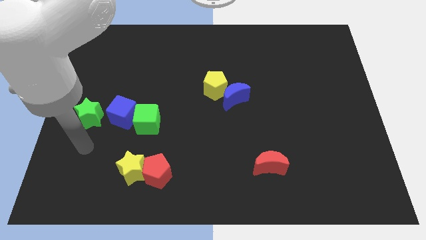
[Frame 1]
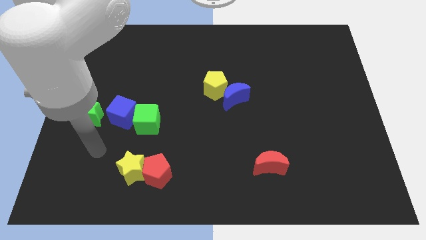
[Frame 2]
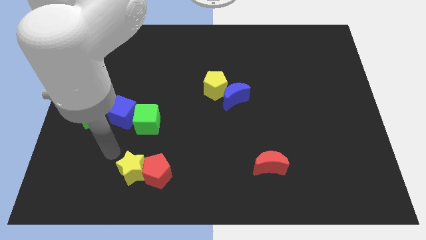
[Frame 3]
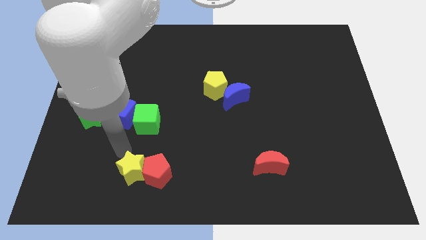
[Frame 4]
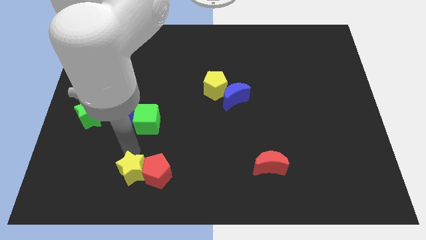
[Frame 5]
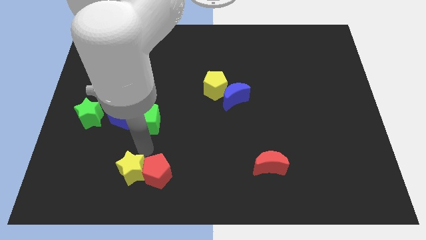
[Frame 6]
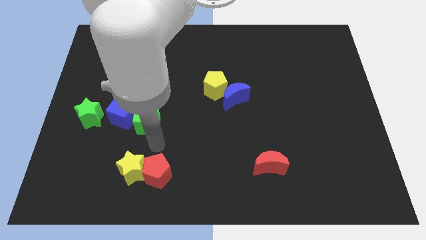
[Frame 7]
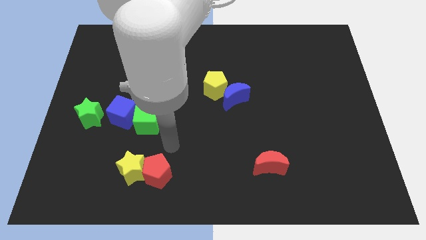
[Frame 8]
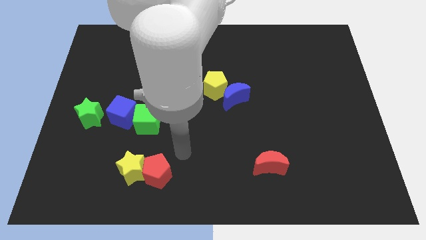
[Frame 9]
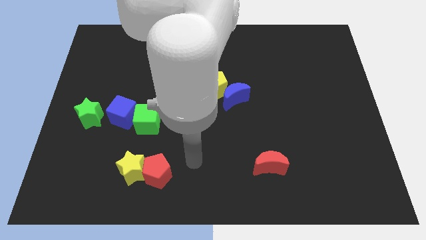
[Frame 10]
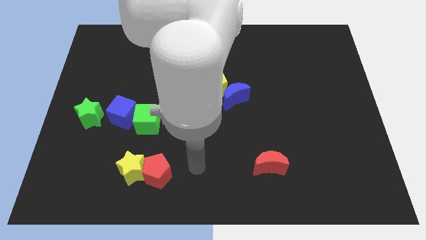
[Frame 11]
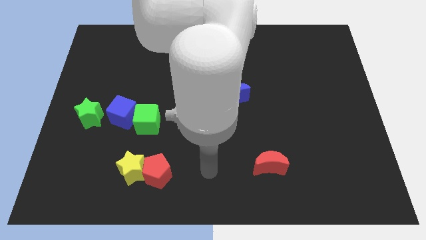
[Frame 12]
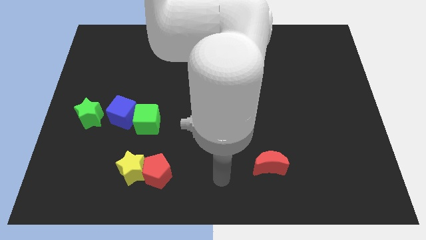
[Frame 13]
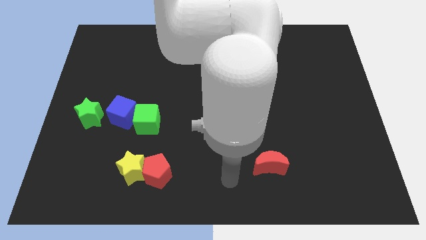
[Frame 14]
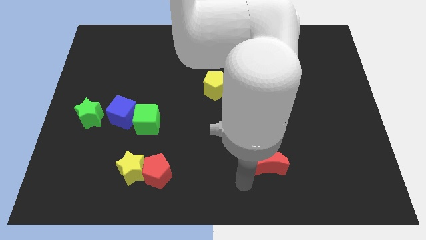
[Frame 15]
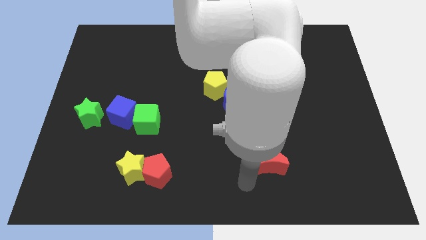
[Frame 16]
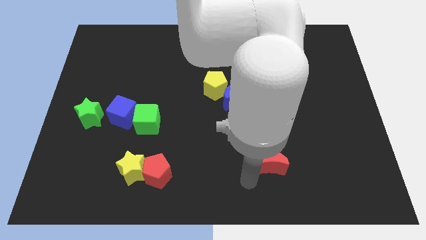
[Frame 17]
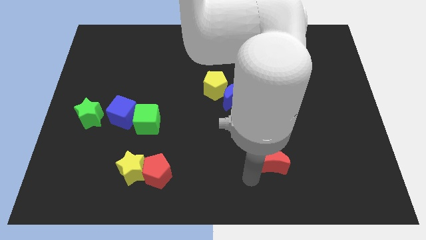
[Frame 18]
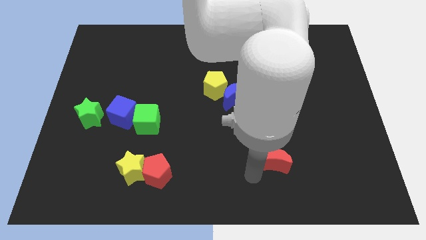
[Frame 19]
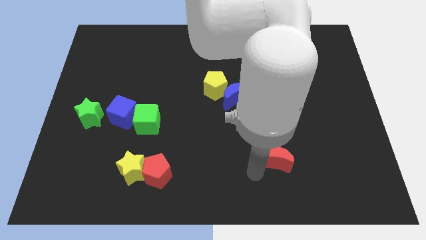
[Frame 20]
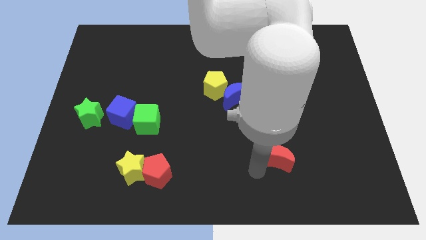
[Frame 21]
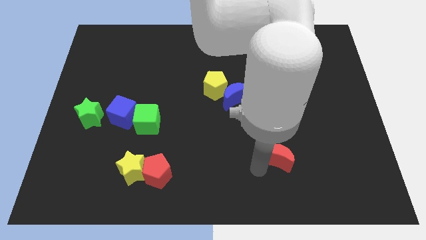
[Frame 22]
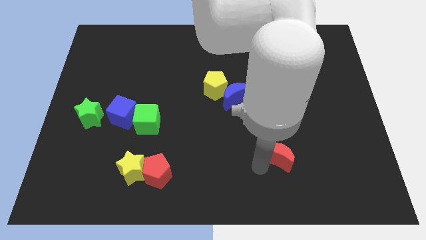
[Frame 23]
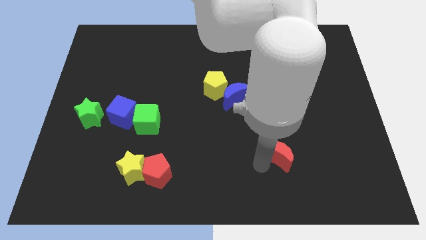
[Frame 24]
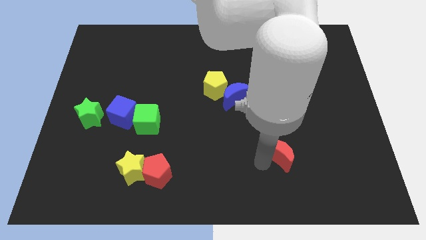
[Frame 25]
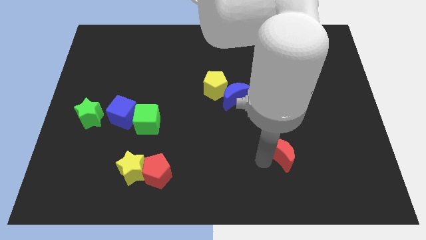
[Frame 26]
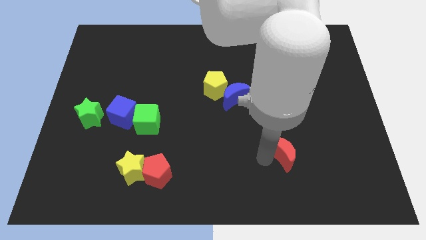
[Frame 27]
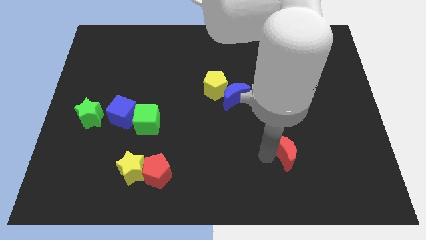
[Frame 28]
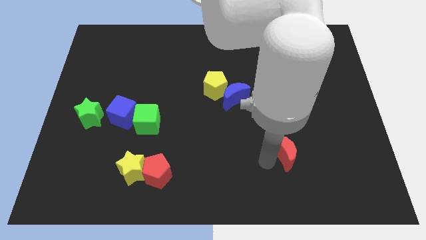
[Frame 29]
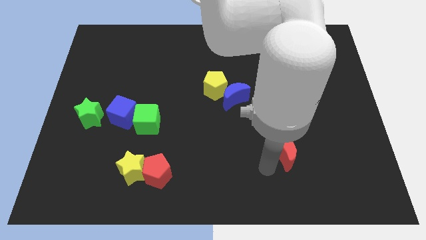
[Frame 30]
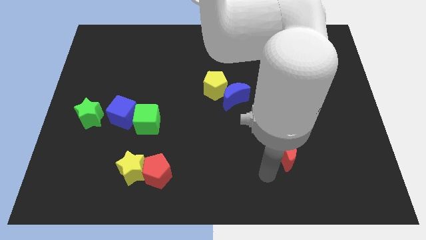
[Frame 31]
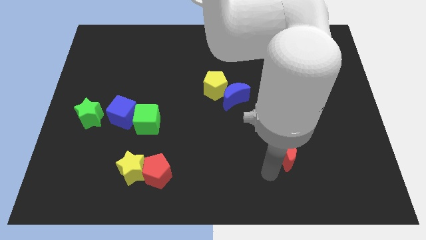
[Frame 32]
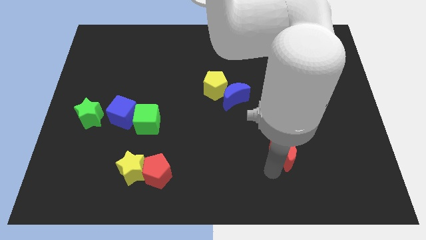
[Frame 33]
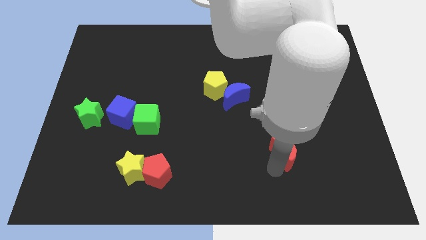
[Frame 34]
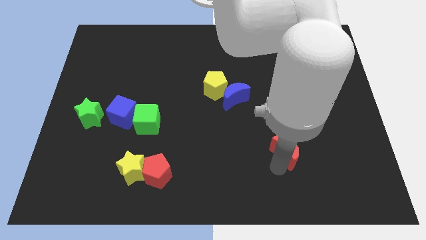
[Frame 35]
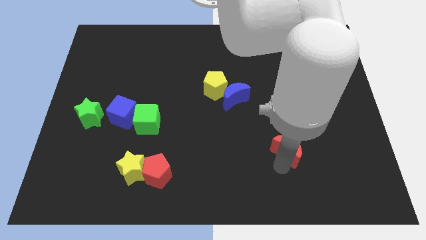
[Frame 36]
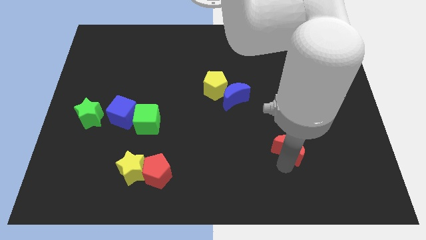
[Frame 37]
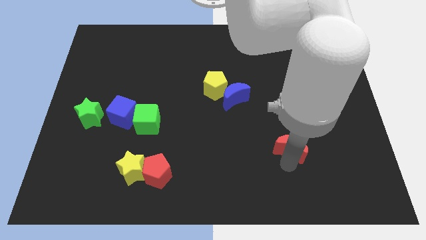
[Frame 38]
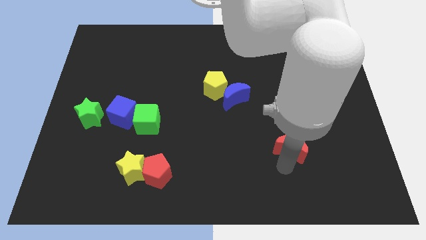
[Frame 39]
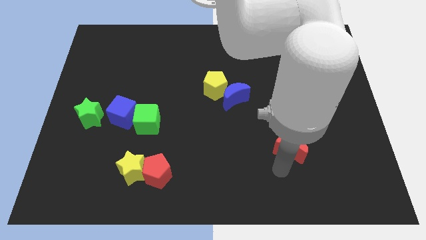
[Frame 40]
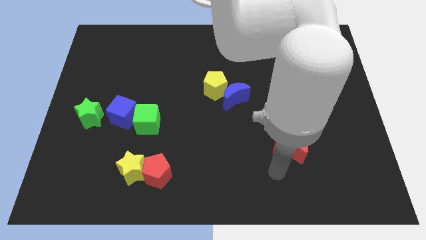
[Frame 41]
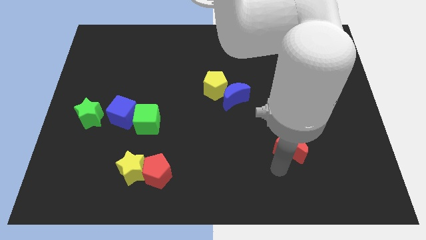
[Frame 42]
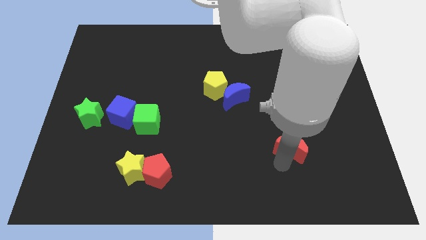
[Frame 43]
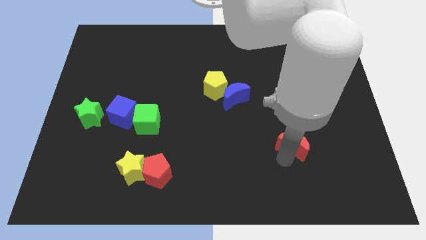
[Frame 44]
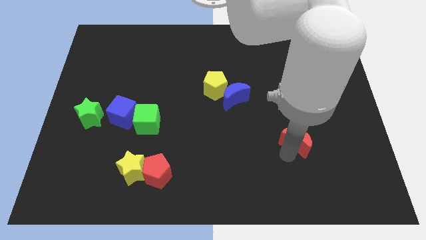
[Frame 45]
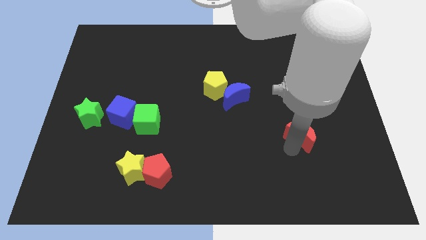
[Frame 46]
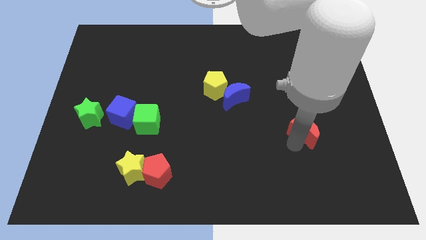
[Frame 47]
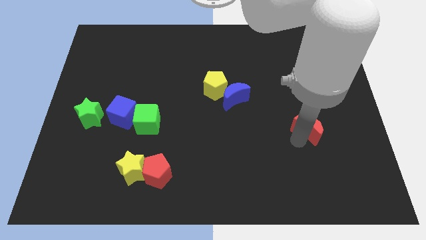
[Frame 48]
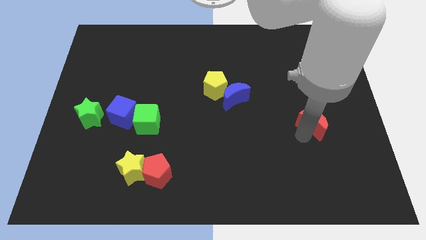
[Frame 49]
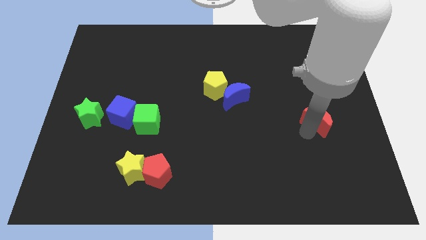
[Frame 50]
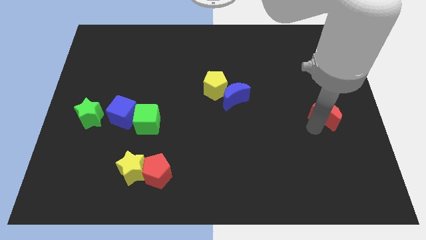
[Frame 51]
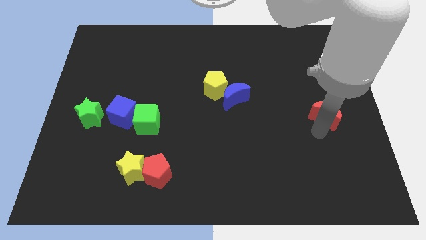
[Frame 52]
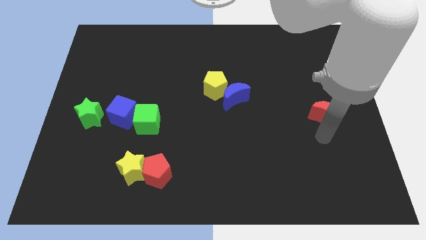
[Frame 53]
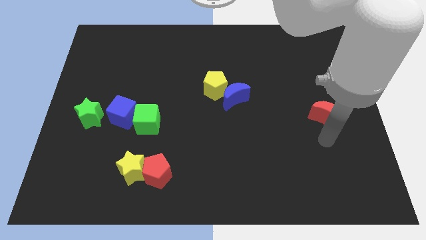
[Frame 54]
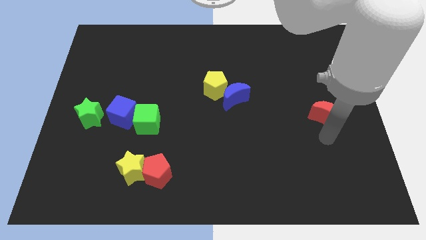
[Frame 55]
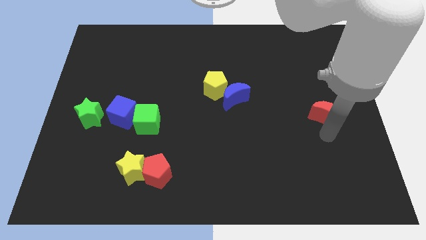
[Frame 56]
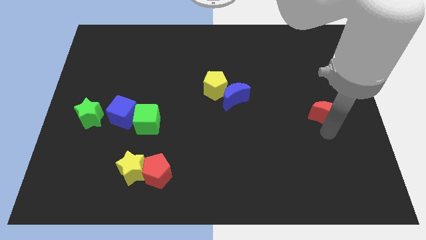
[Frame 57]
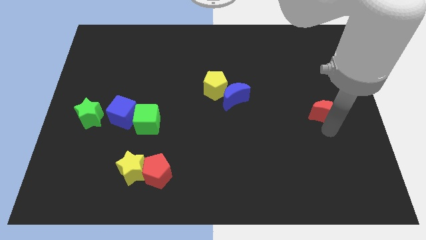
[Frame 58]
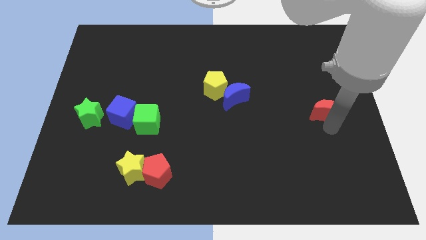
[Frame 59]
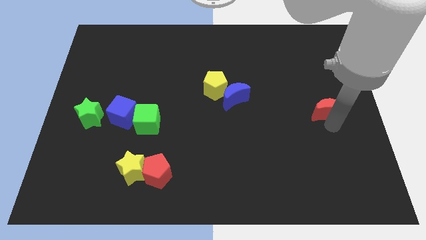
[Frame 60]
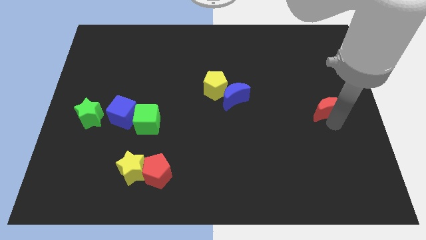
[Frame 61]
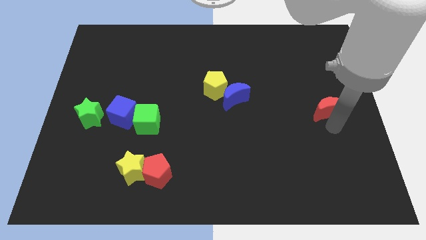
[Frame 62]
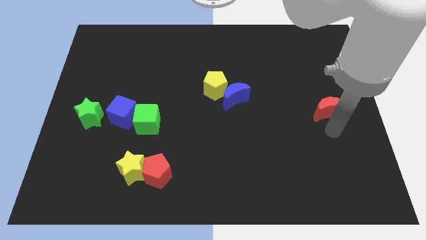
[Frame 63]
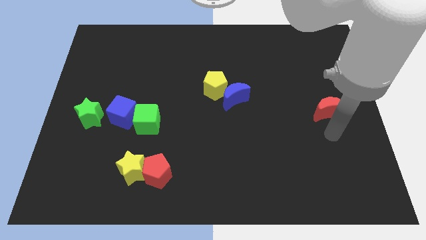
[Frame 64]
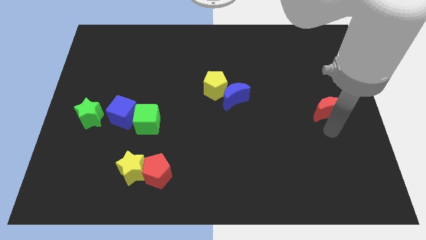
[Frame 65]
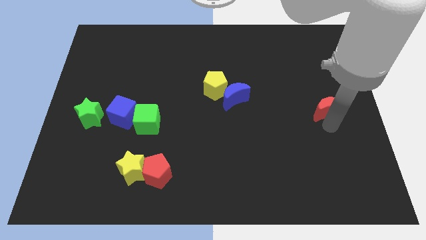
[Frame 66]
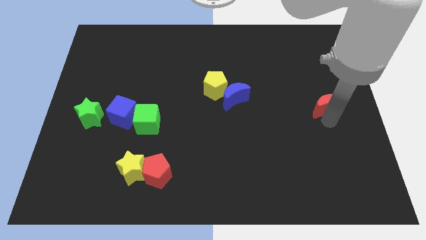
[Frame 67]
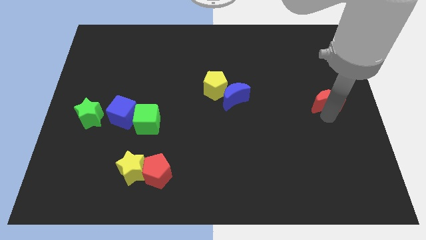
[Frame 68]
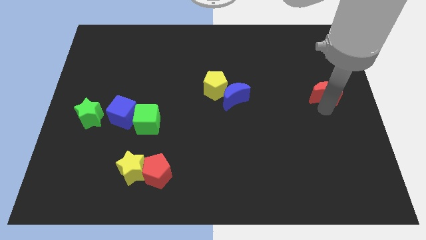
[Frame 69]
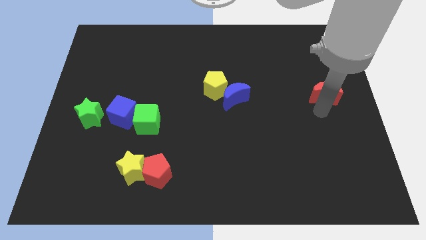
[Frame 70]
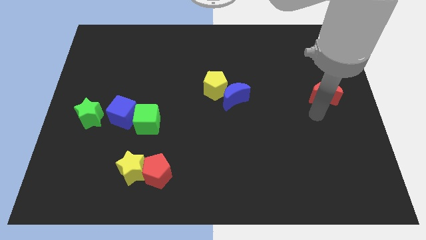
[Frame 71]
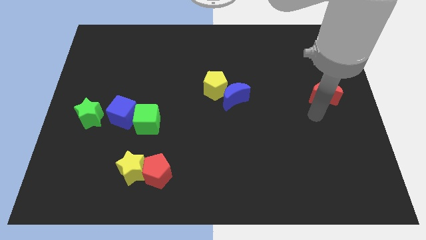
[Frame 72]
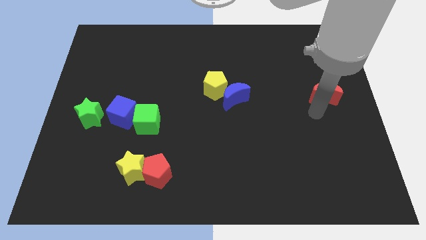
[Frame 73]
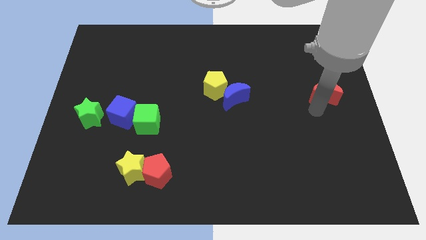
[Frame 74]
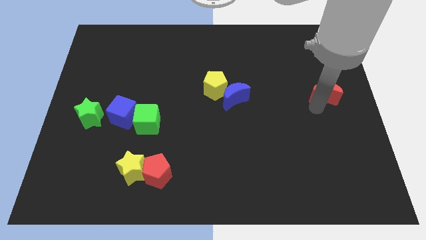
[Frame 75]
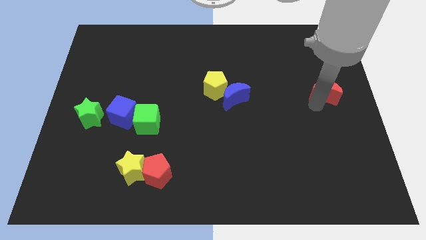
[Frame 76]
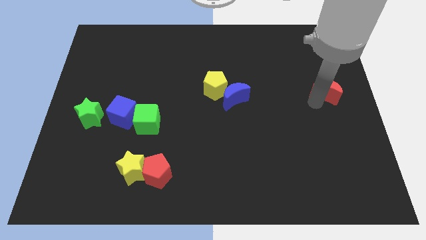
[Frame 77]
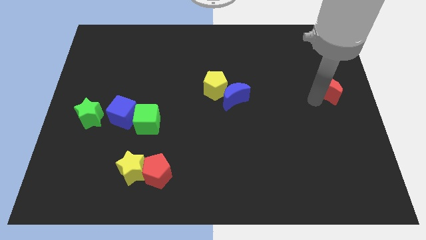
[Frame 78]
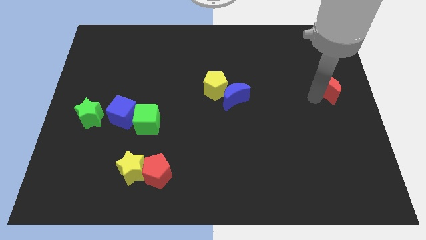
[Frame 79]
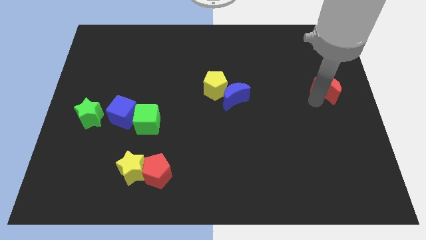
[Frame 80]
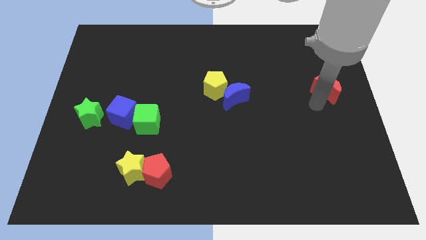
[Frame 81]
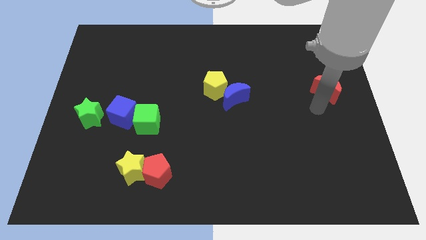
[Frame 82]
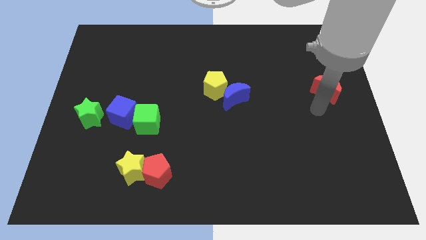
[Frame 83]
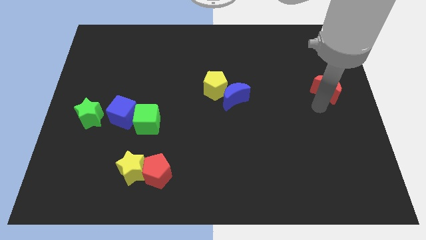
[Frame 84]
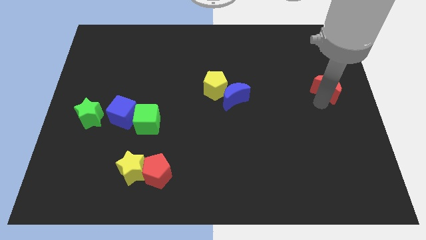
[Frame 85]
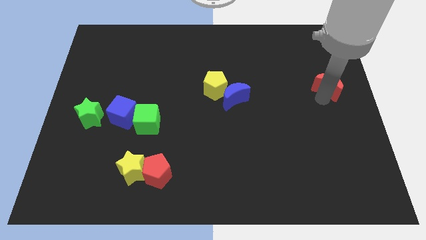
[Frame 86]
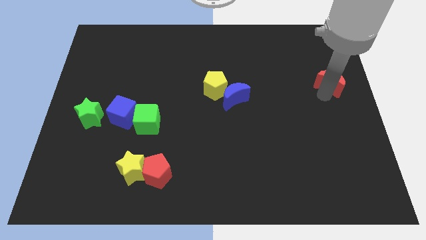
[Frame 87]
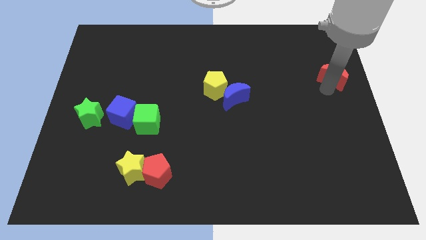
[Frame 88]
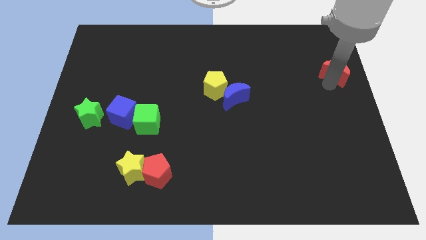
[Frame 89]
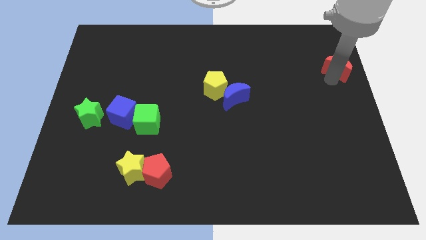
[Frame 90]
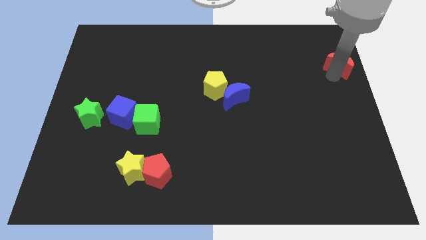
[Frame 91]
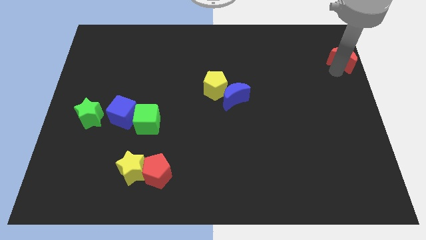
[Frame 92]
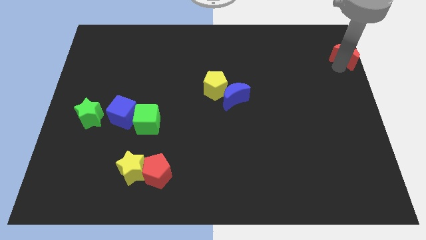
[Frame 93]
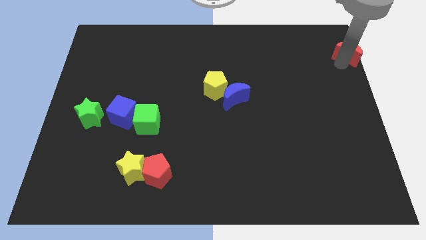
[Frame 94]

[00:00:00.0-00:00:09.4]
put the red moon to the top right
